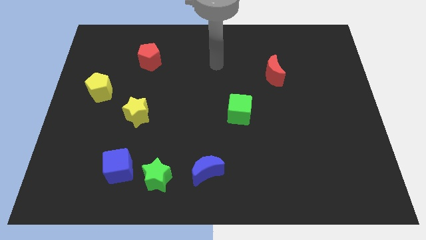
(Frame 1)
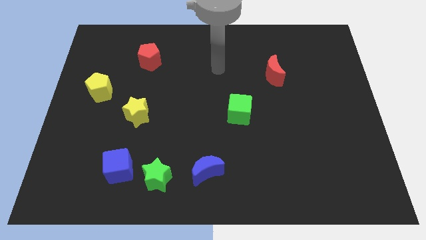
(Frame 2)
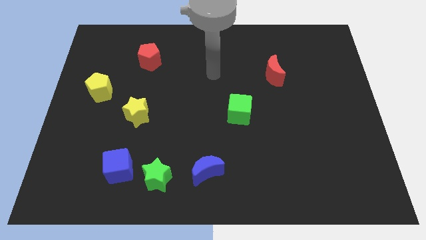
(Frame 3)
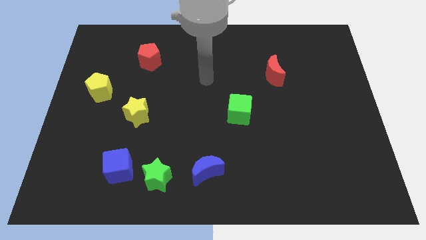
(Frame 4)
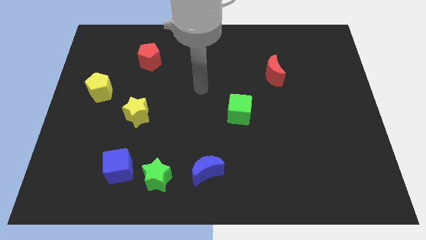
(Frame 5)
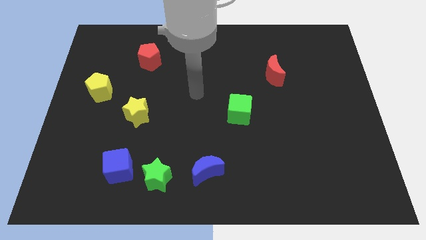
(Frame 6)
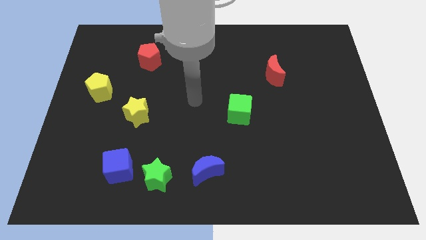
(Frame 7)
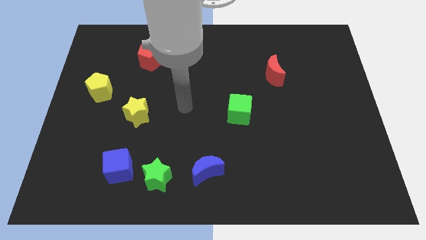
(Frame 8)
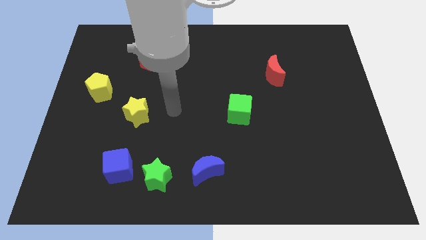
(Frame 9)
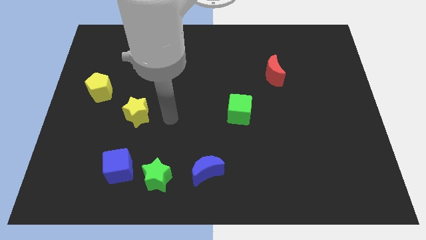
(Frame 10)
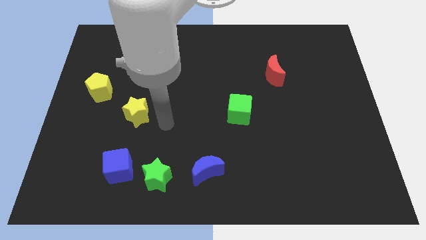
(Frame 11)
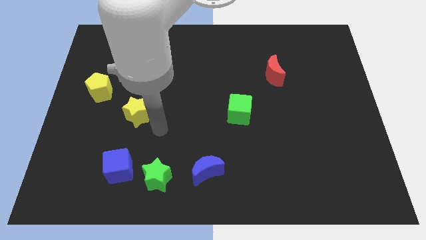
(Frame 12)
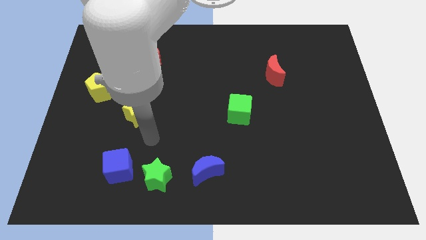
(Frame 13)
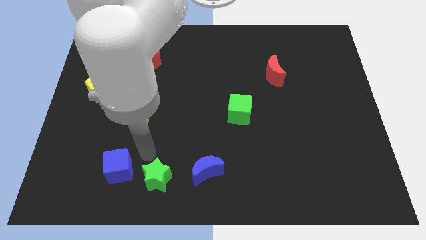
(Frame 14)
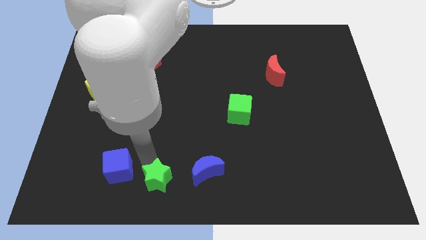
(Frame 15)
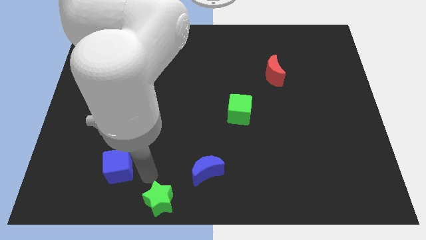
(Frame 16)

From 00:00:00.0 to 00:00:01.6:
move the blue cube away from the green star

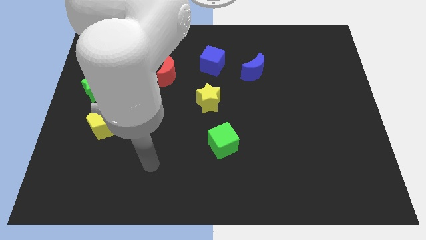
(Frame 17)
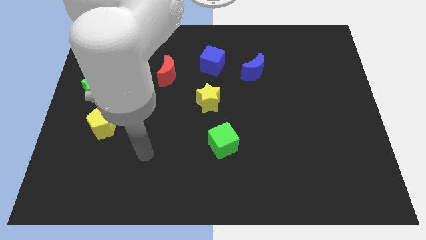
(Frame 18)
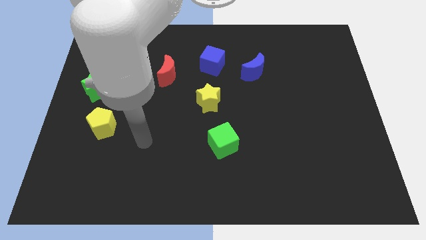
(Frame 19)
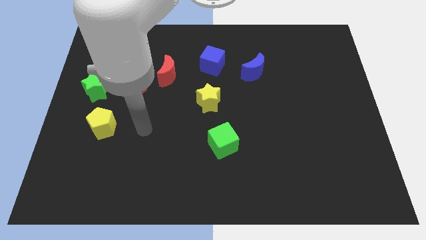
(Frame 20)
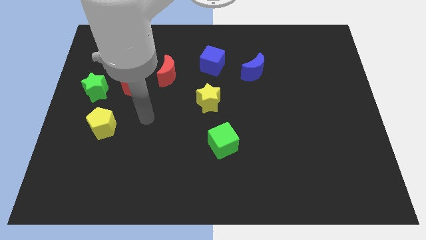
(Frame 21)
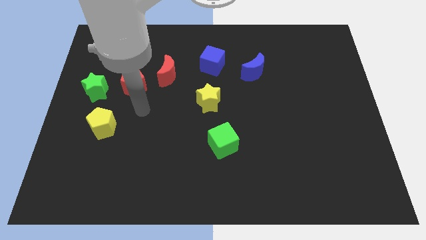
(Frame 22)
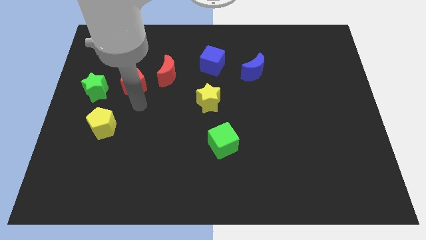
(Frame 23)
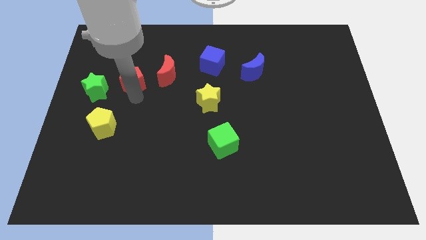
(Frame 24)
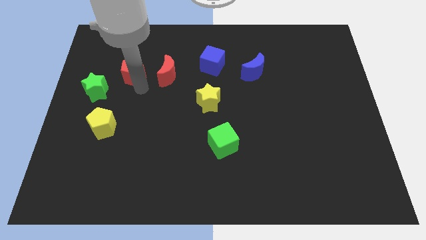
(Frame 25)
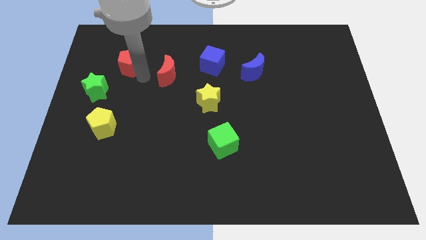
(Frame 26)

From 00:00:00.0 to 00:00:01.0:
pull the red moon apart from the red pentagon

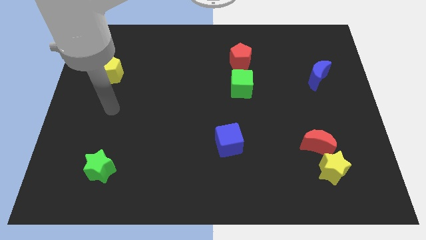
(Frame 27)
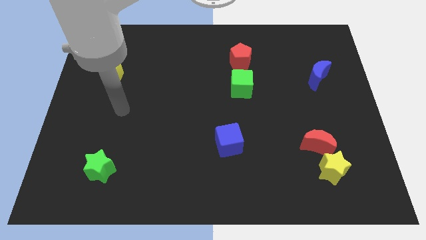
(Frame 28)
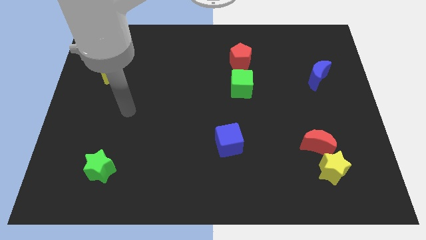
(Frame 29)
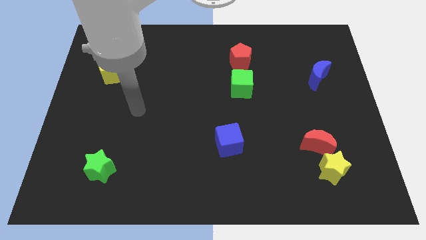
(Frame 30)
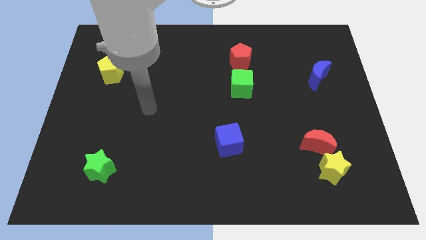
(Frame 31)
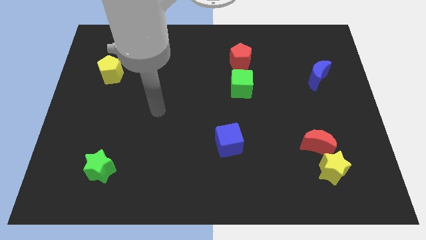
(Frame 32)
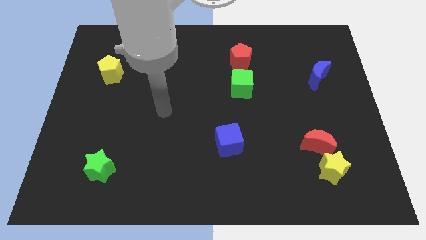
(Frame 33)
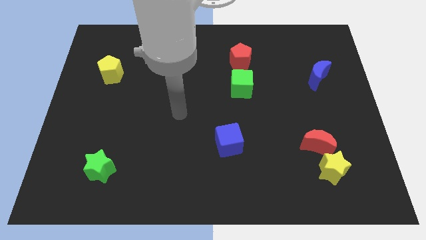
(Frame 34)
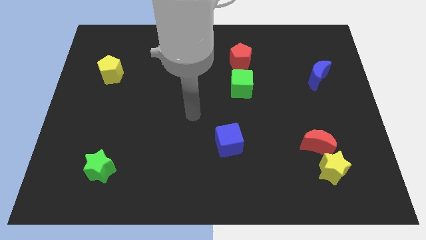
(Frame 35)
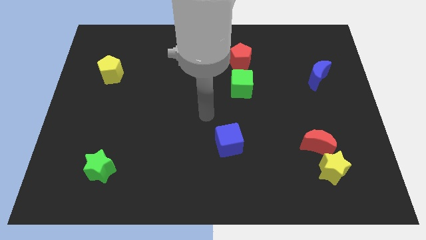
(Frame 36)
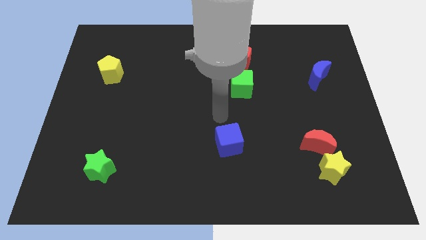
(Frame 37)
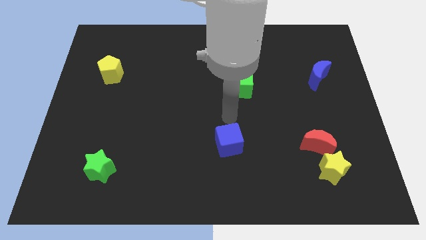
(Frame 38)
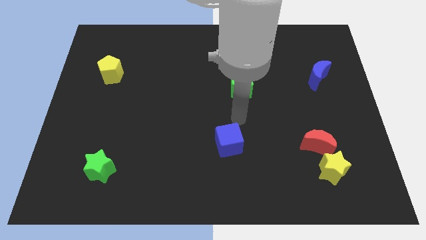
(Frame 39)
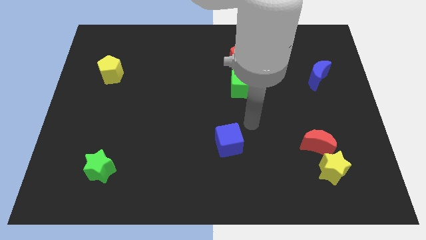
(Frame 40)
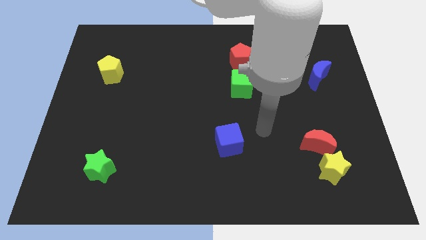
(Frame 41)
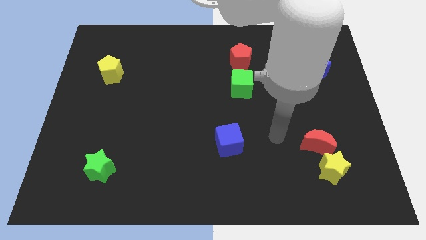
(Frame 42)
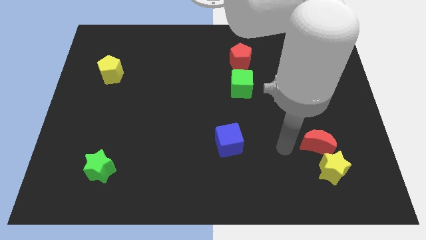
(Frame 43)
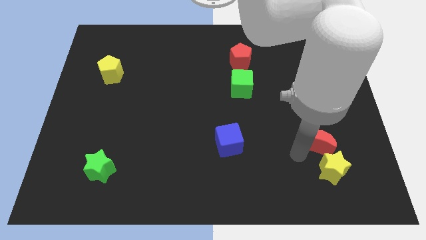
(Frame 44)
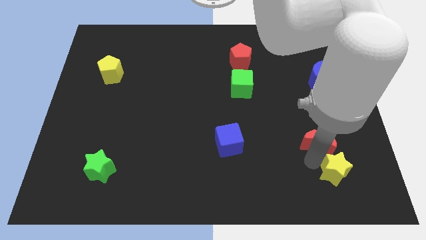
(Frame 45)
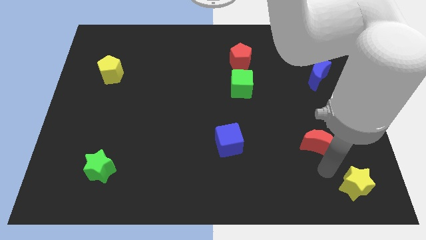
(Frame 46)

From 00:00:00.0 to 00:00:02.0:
pull the red moon apart from the yellow star

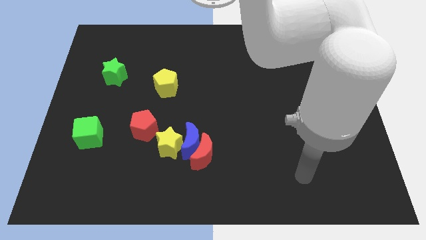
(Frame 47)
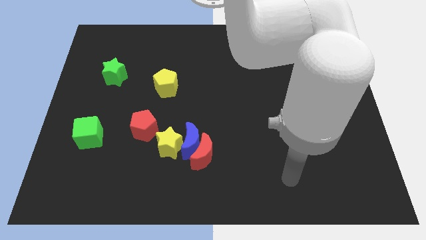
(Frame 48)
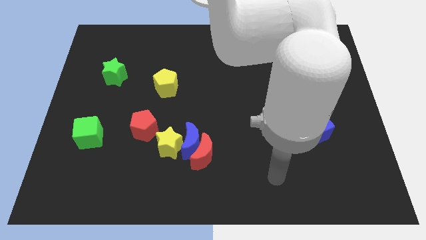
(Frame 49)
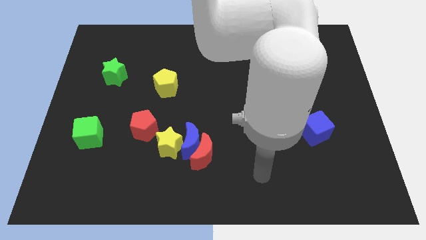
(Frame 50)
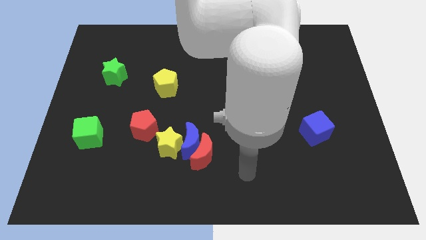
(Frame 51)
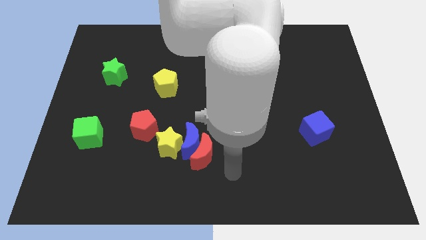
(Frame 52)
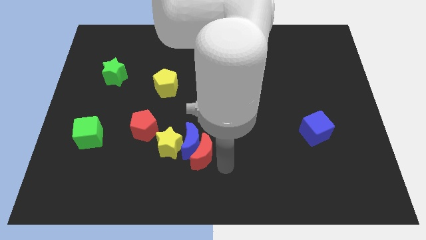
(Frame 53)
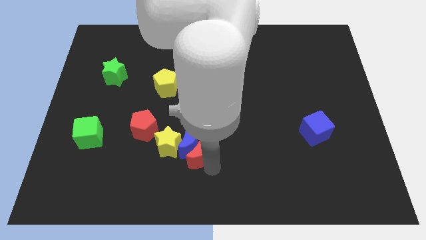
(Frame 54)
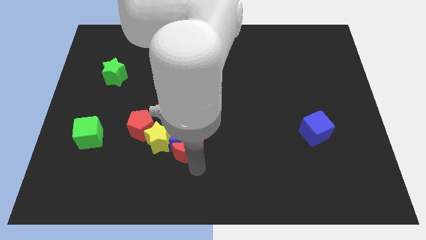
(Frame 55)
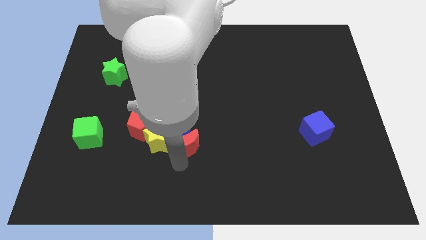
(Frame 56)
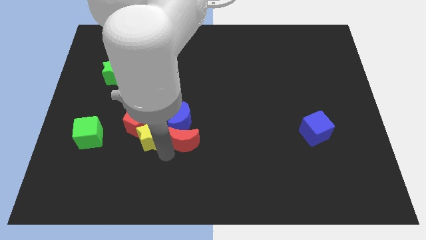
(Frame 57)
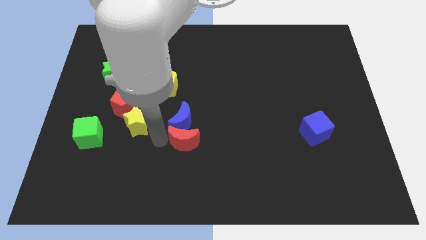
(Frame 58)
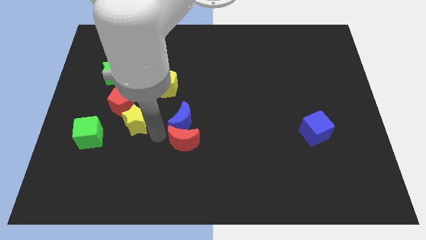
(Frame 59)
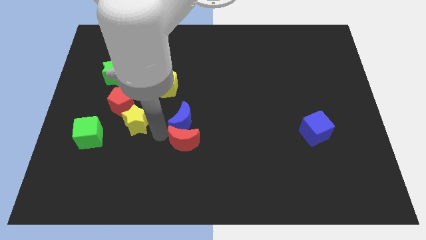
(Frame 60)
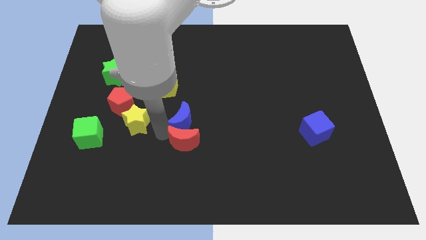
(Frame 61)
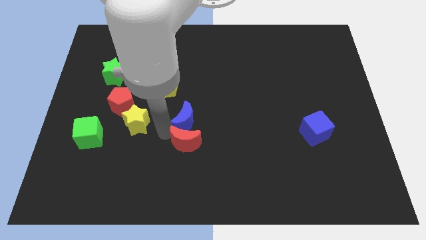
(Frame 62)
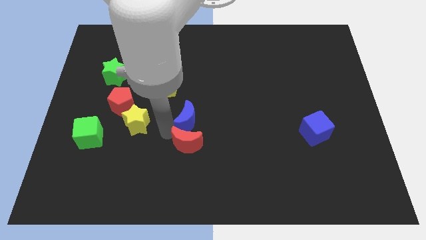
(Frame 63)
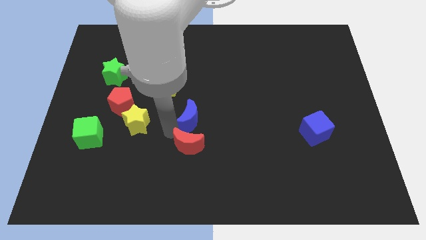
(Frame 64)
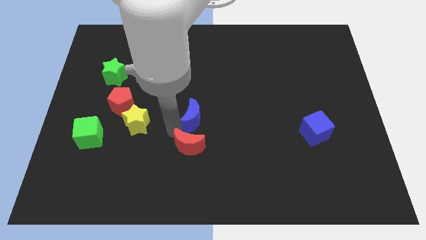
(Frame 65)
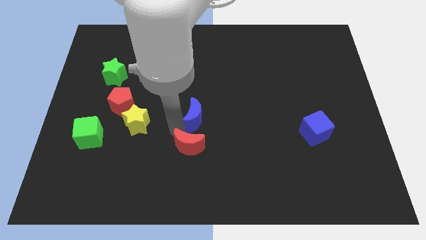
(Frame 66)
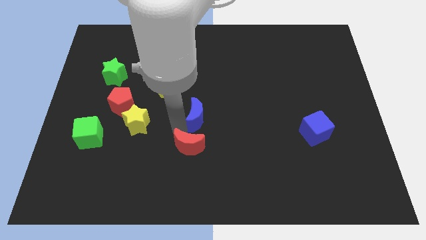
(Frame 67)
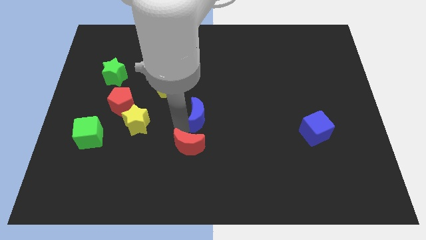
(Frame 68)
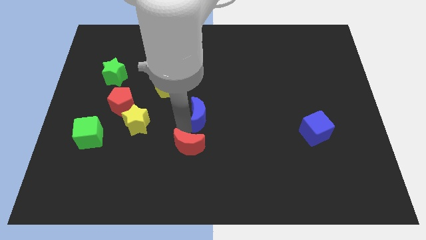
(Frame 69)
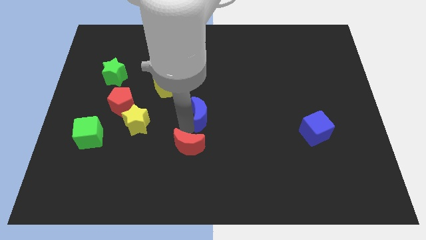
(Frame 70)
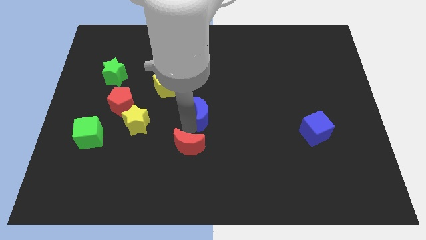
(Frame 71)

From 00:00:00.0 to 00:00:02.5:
separate the blue moon from the red moon and yellow star

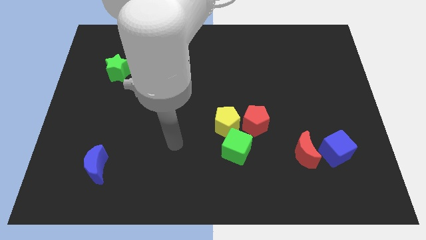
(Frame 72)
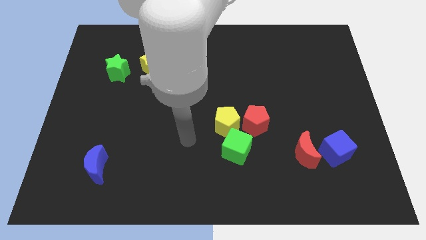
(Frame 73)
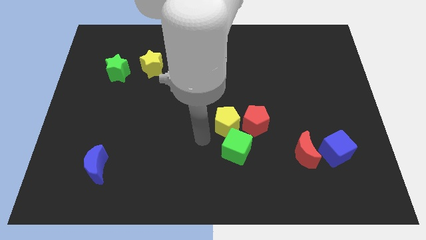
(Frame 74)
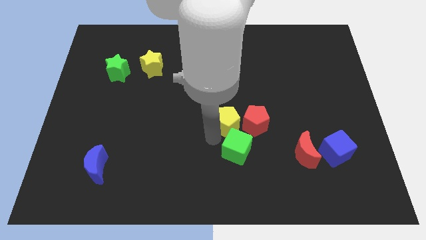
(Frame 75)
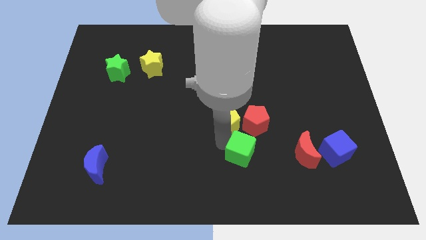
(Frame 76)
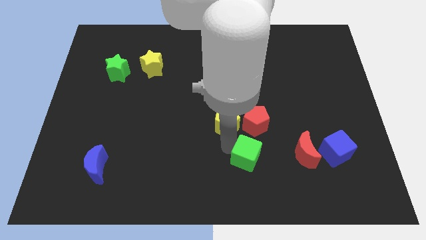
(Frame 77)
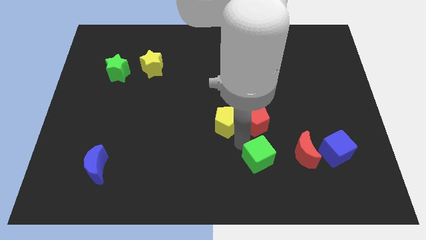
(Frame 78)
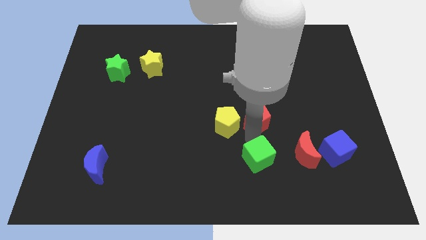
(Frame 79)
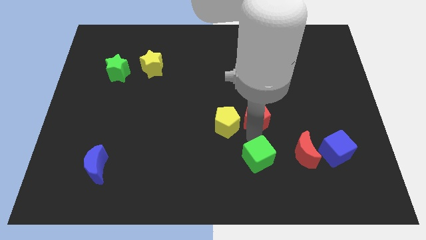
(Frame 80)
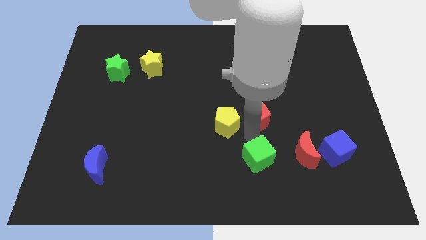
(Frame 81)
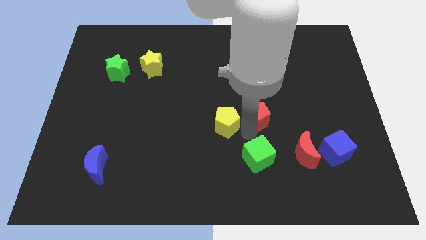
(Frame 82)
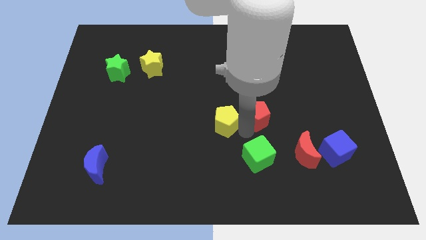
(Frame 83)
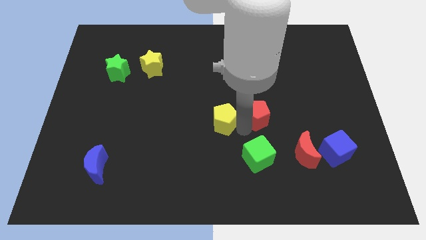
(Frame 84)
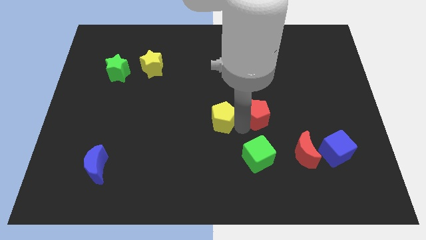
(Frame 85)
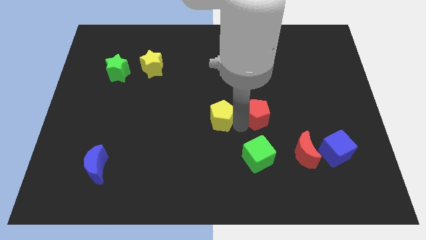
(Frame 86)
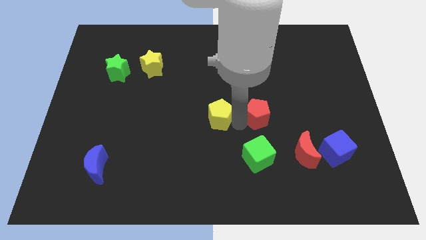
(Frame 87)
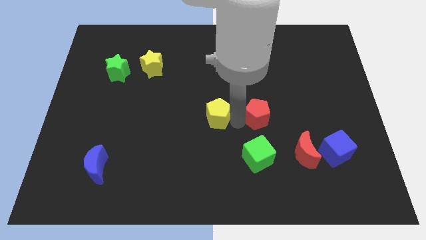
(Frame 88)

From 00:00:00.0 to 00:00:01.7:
separate the yellow pentagon from the red pentagon and green cube

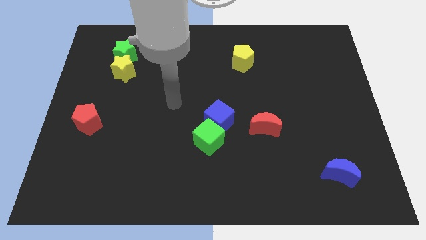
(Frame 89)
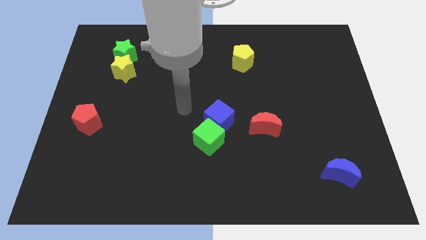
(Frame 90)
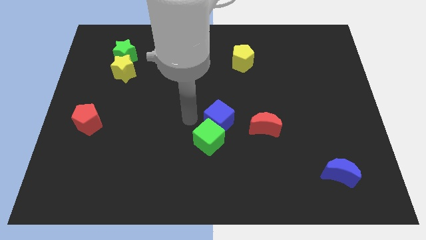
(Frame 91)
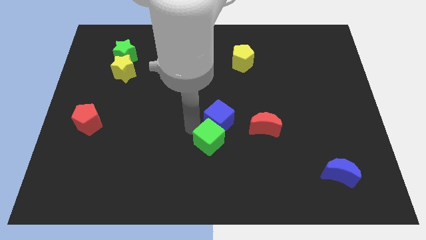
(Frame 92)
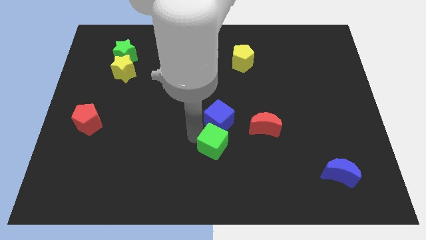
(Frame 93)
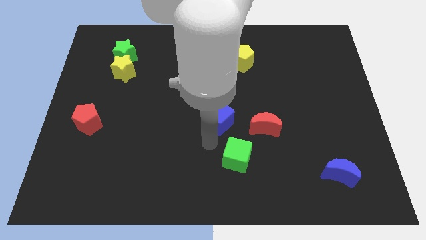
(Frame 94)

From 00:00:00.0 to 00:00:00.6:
separate the blue cube from the green cube
